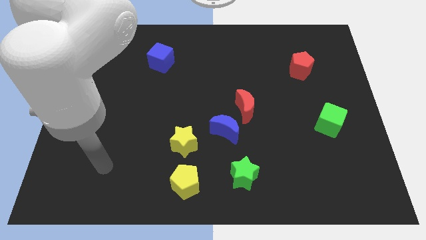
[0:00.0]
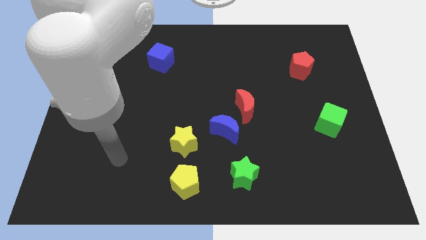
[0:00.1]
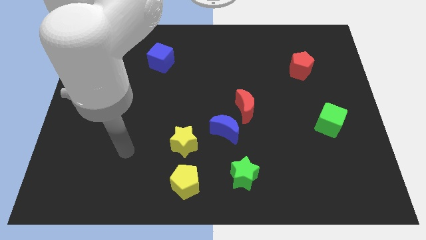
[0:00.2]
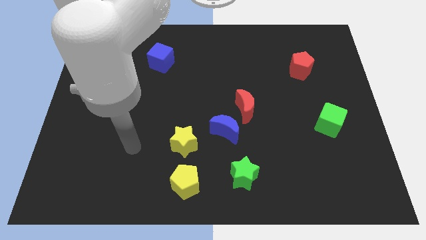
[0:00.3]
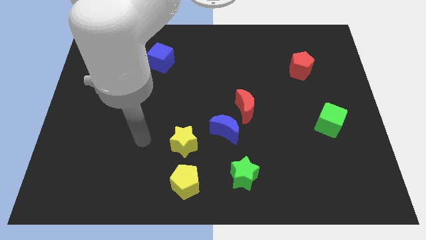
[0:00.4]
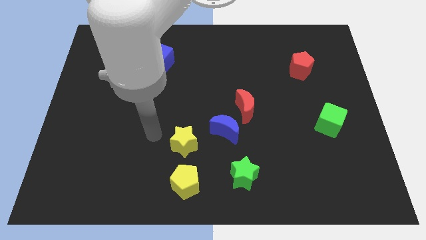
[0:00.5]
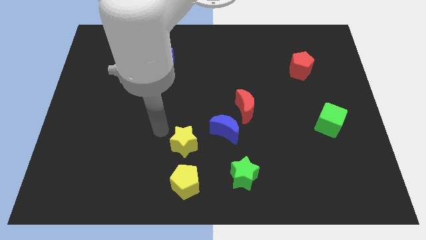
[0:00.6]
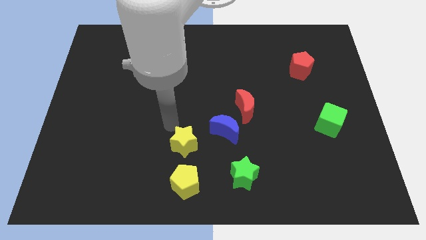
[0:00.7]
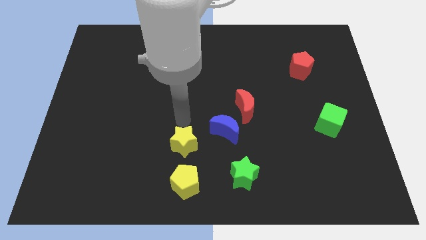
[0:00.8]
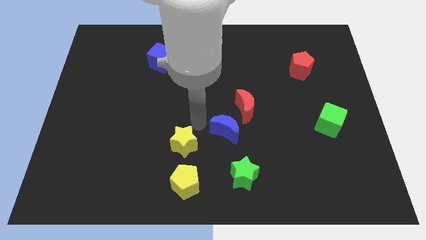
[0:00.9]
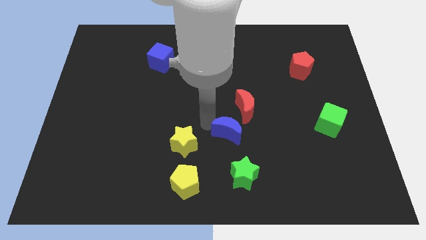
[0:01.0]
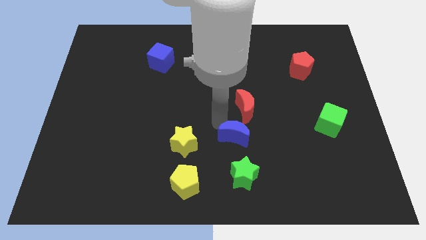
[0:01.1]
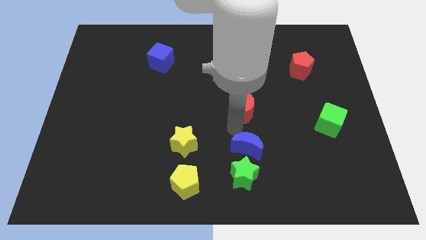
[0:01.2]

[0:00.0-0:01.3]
move the red moon away from the blue moon

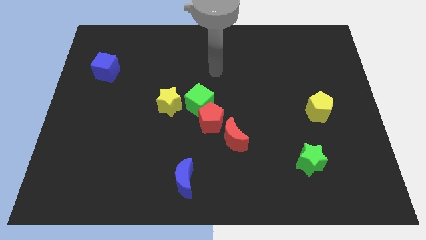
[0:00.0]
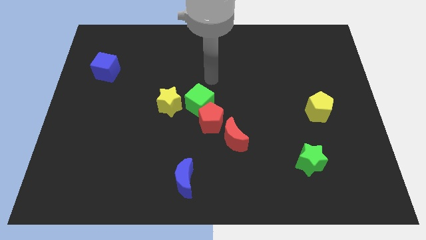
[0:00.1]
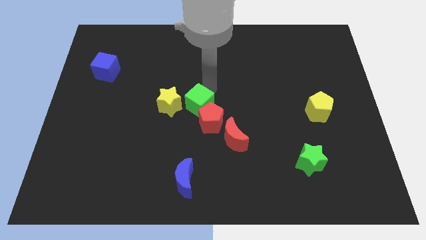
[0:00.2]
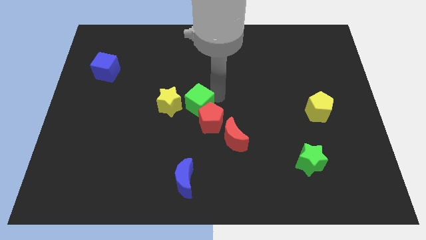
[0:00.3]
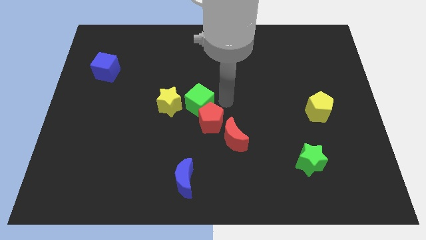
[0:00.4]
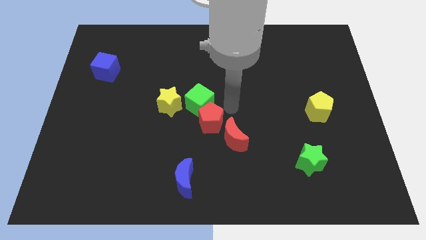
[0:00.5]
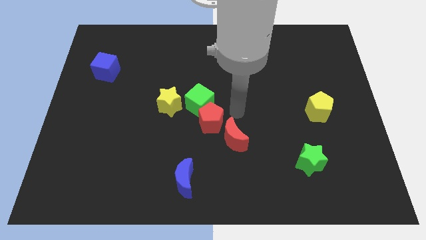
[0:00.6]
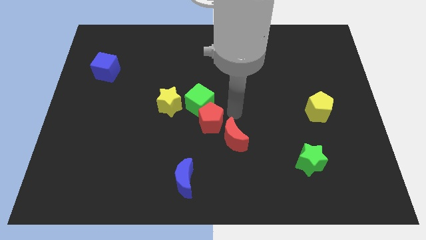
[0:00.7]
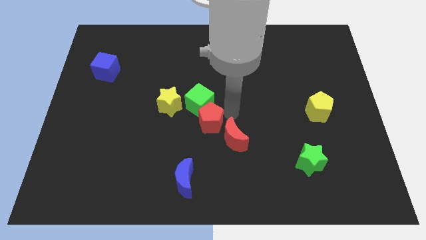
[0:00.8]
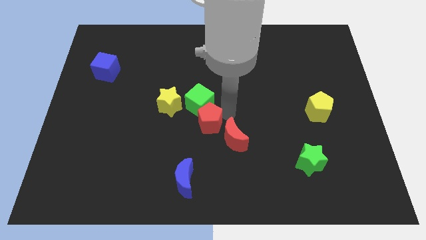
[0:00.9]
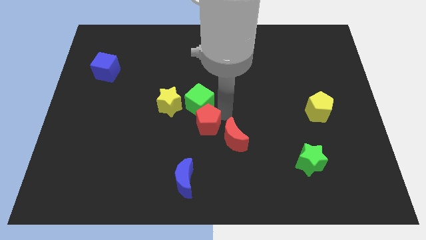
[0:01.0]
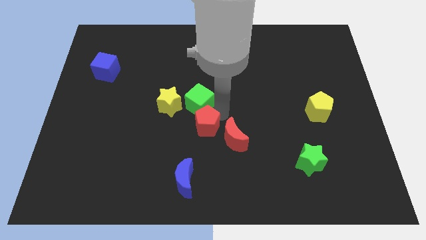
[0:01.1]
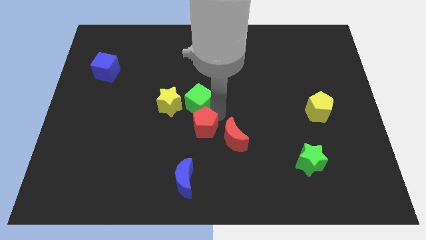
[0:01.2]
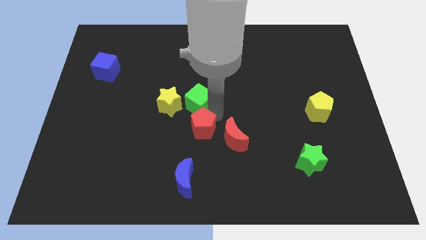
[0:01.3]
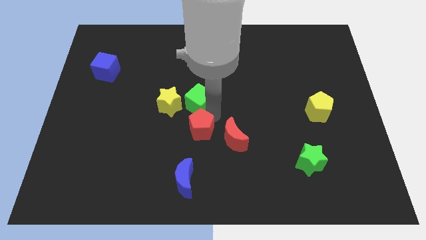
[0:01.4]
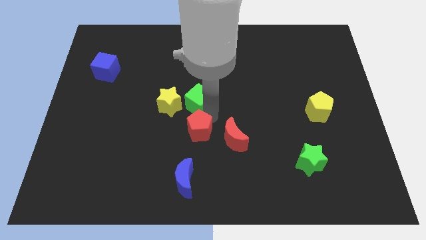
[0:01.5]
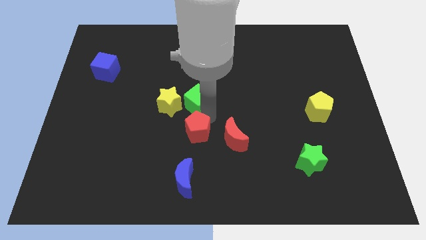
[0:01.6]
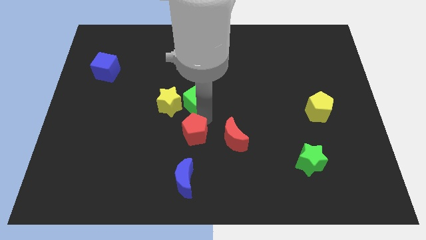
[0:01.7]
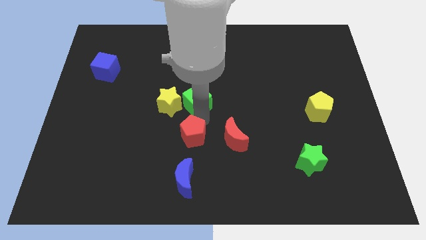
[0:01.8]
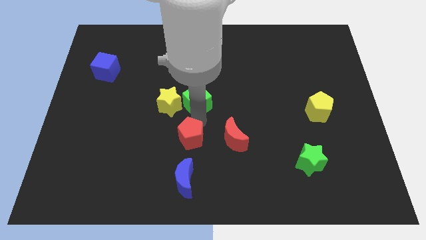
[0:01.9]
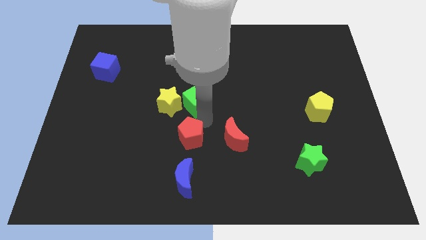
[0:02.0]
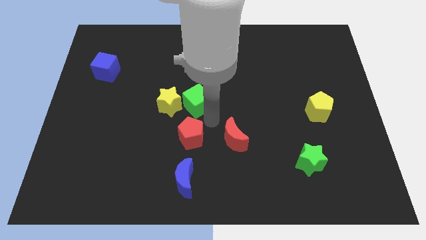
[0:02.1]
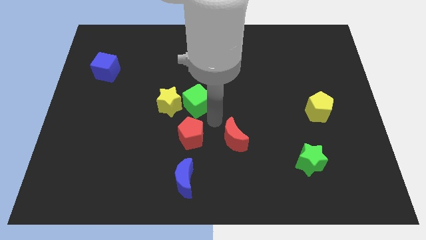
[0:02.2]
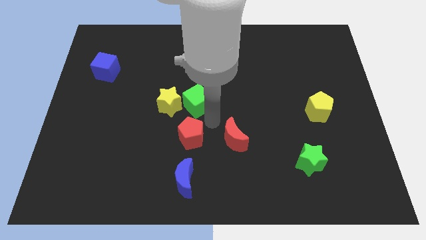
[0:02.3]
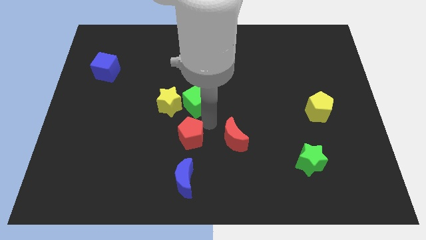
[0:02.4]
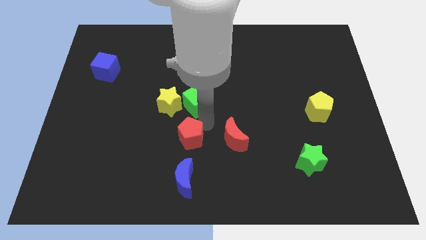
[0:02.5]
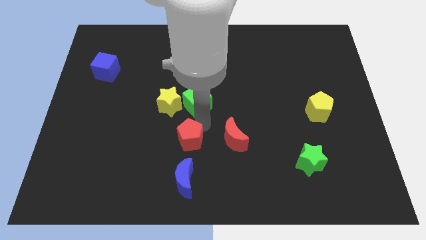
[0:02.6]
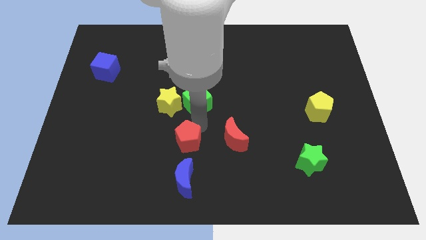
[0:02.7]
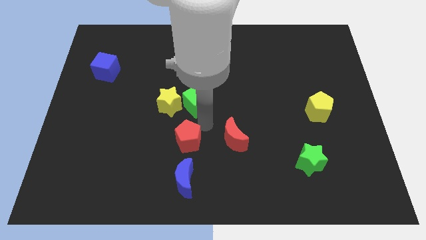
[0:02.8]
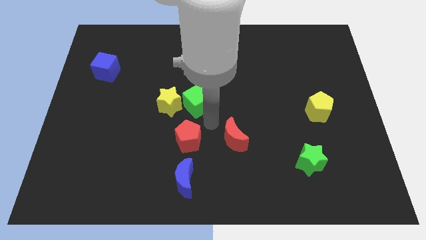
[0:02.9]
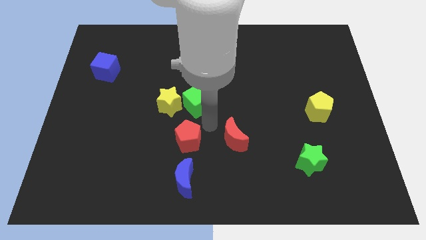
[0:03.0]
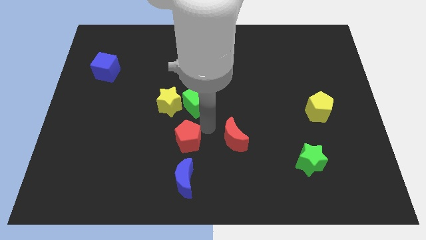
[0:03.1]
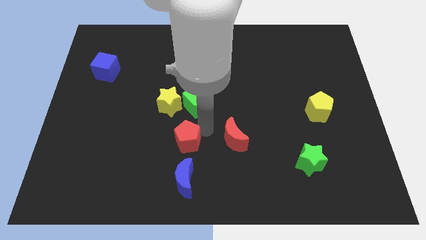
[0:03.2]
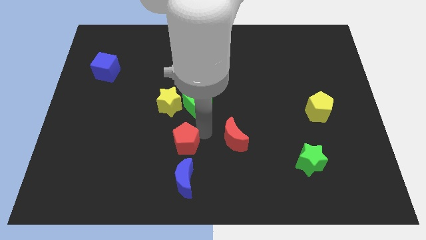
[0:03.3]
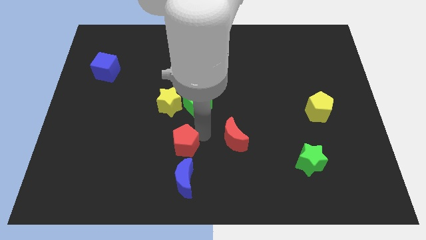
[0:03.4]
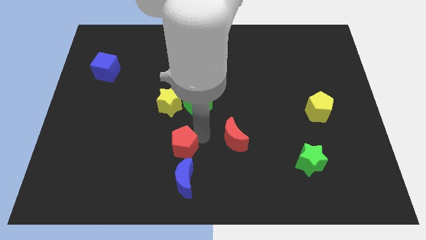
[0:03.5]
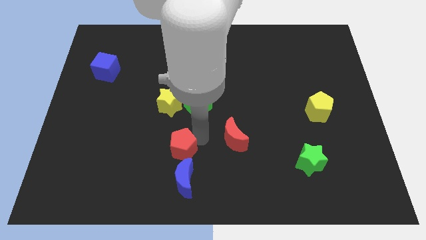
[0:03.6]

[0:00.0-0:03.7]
move the red pentagon away from the green cube and red moon

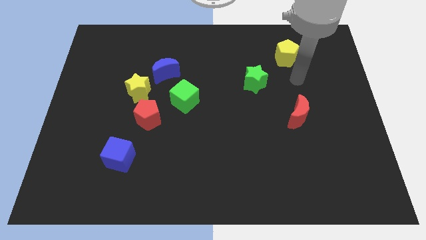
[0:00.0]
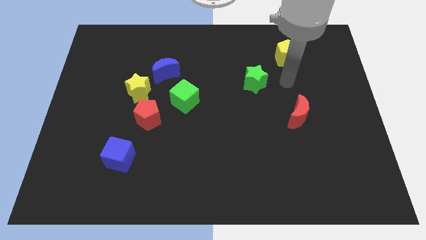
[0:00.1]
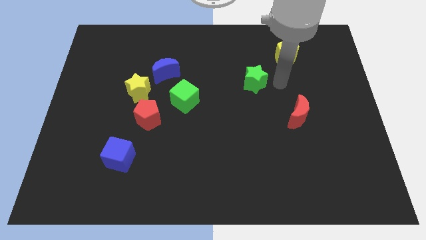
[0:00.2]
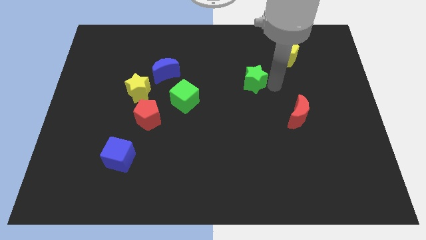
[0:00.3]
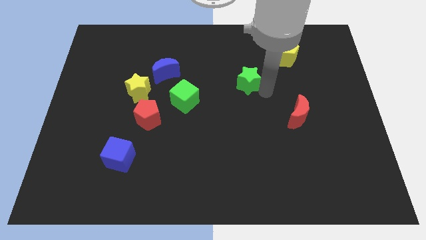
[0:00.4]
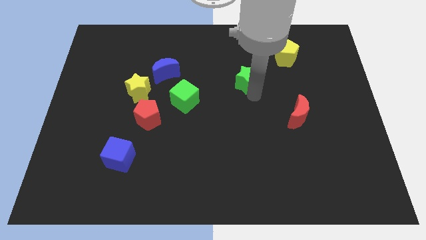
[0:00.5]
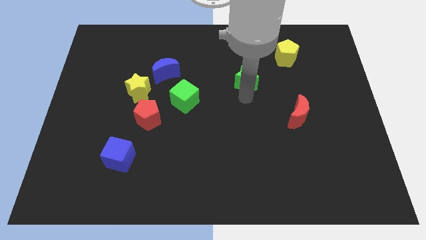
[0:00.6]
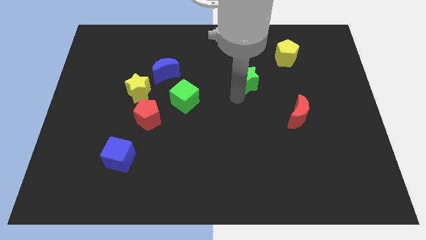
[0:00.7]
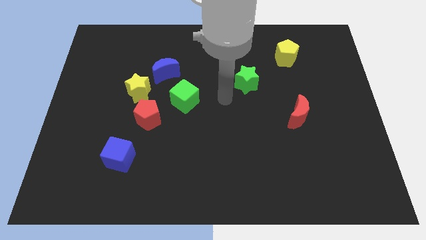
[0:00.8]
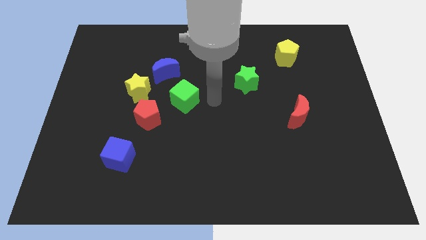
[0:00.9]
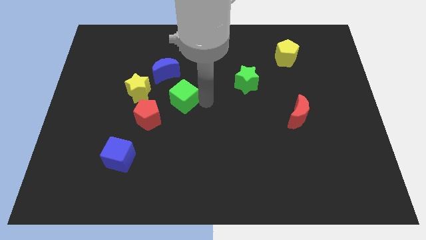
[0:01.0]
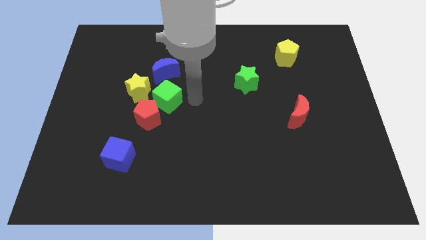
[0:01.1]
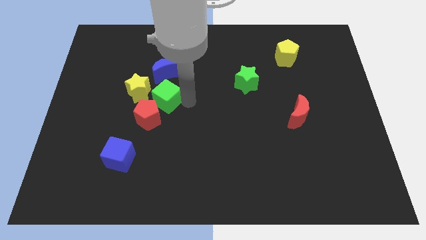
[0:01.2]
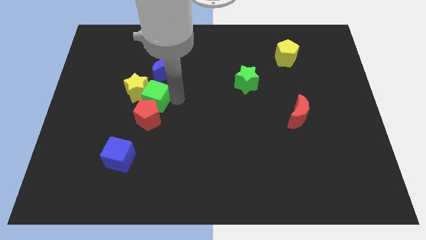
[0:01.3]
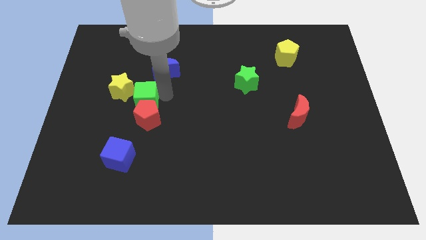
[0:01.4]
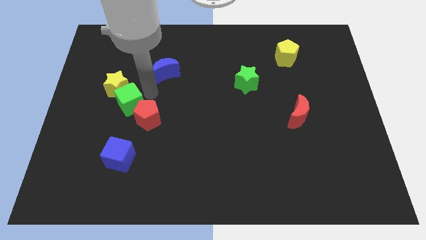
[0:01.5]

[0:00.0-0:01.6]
separate the yellow star from the red pentagon and blue moon

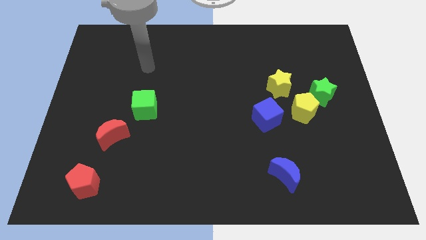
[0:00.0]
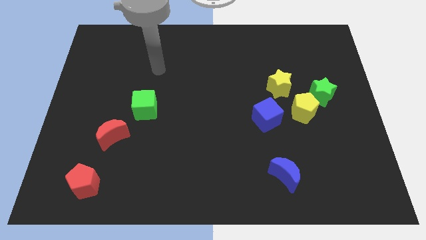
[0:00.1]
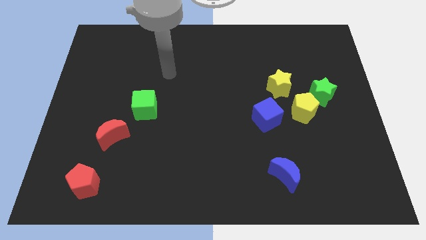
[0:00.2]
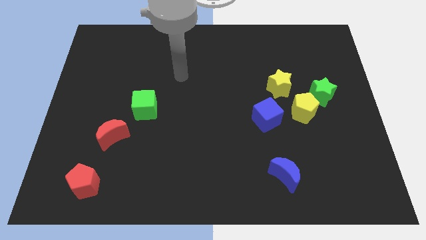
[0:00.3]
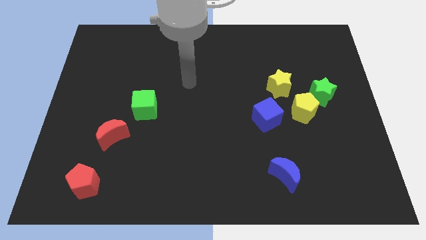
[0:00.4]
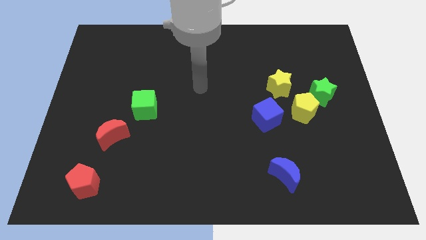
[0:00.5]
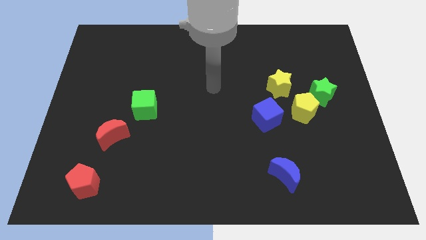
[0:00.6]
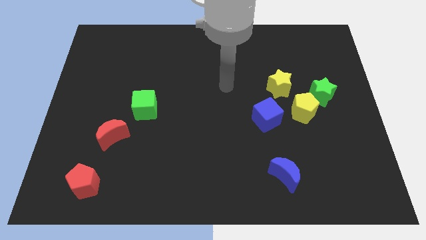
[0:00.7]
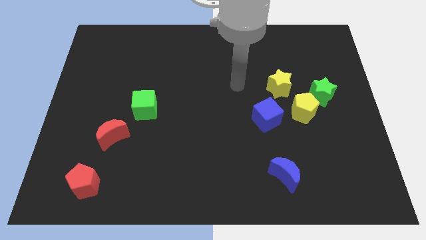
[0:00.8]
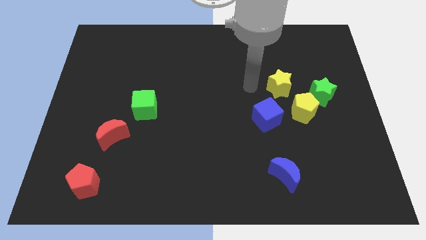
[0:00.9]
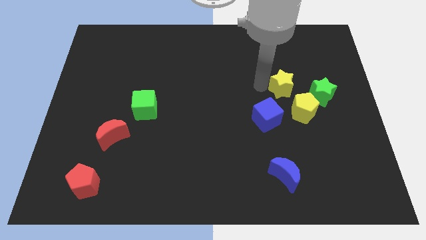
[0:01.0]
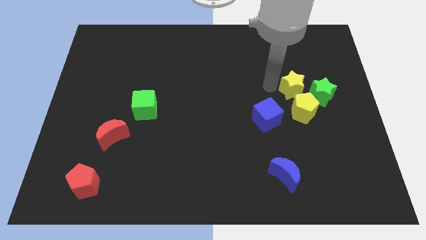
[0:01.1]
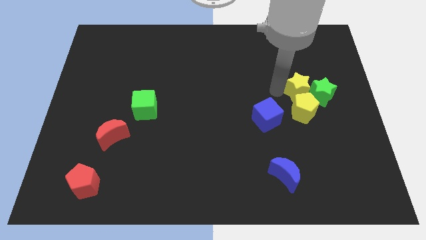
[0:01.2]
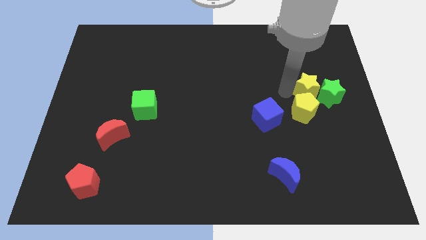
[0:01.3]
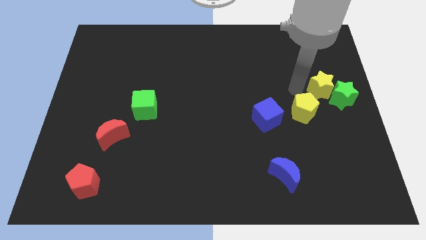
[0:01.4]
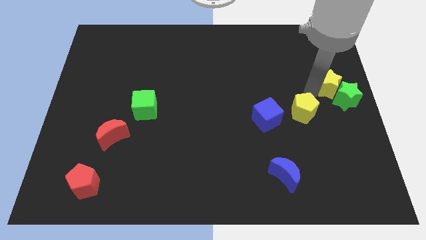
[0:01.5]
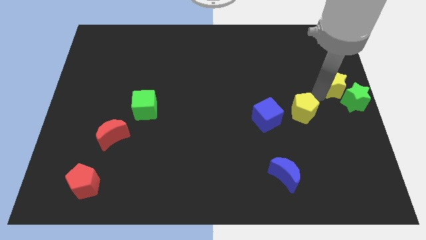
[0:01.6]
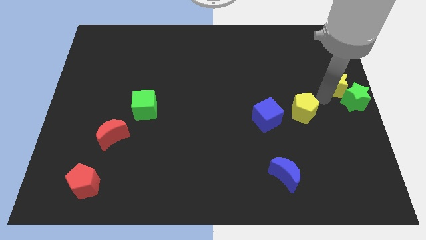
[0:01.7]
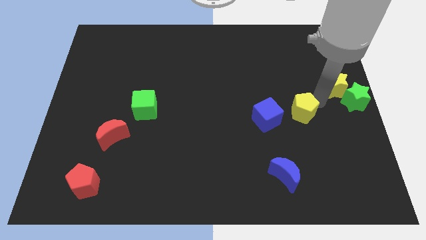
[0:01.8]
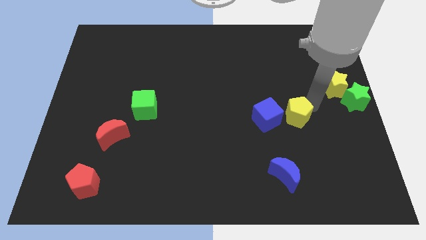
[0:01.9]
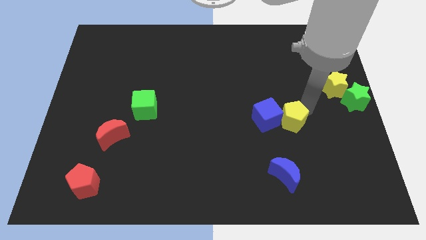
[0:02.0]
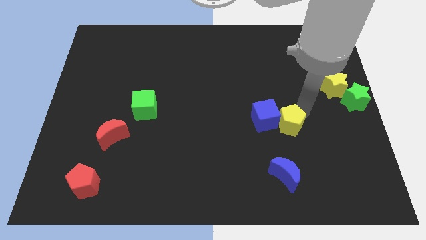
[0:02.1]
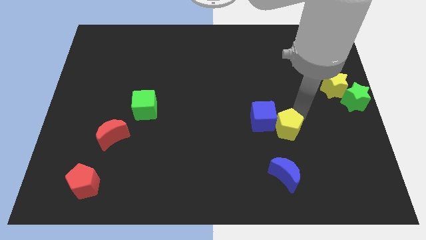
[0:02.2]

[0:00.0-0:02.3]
separate the yellow pentagon from the clump

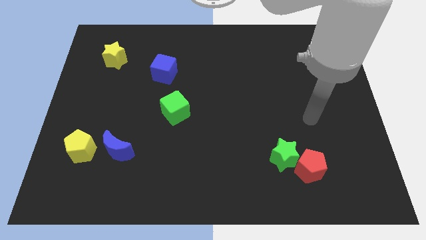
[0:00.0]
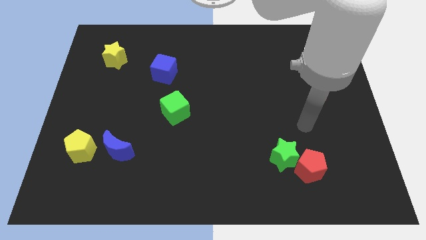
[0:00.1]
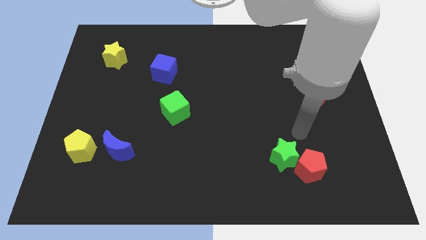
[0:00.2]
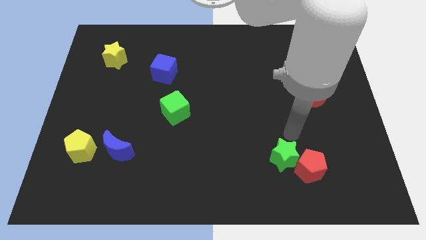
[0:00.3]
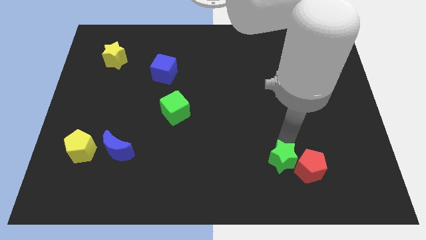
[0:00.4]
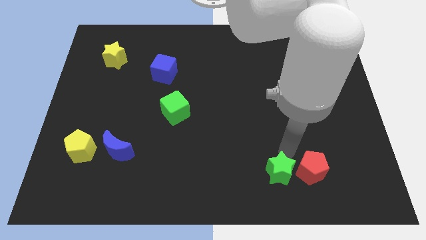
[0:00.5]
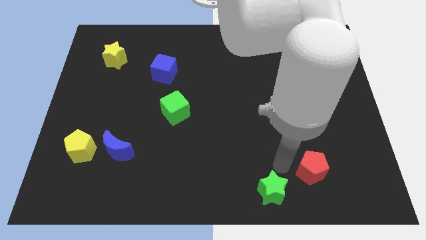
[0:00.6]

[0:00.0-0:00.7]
separate the red pentagon from the green star
